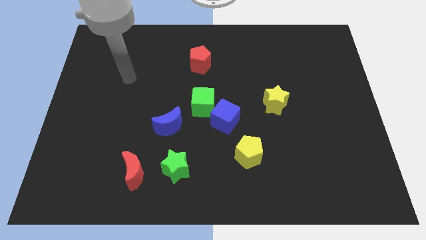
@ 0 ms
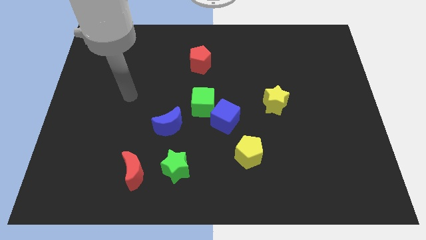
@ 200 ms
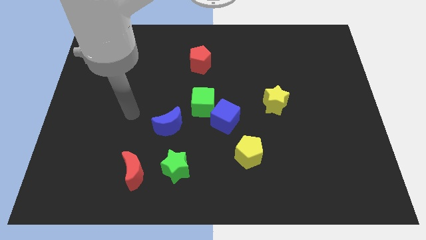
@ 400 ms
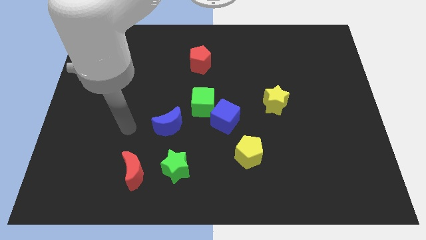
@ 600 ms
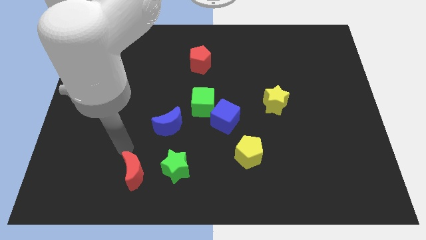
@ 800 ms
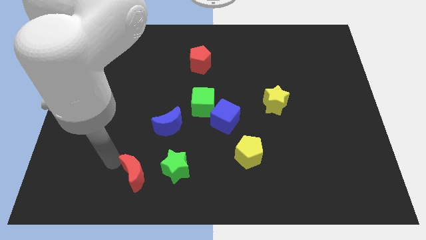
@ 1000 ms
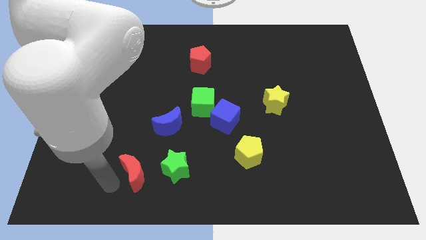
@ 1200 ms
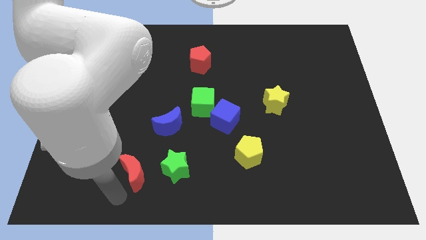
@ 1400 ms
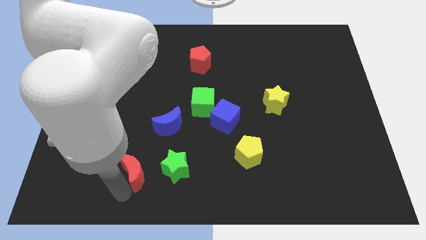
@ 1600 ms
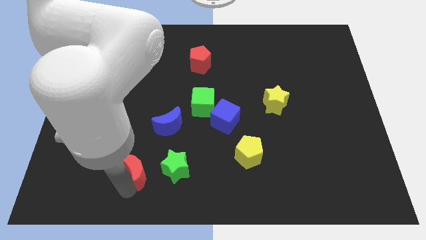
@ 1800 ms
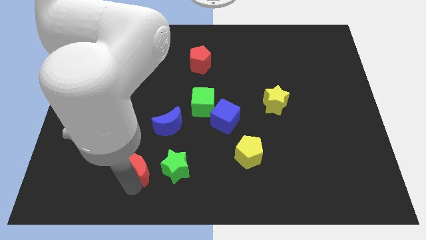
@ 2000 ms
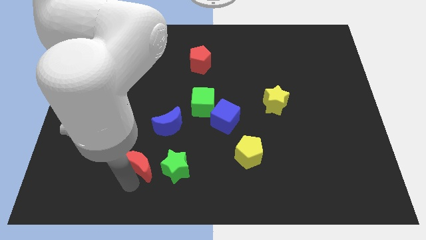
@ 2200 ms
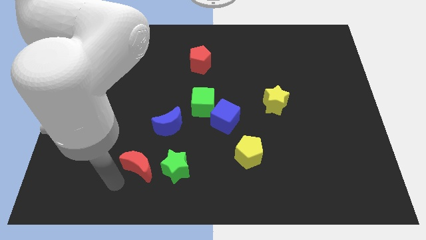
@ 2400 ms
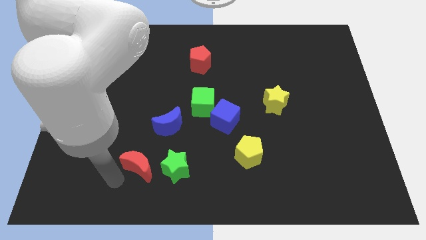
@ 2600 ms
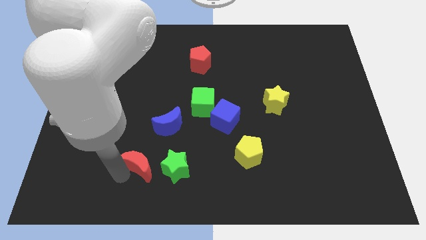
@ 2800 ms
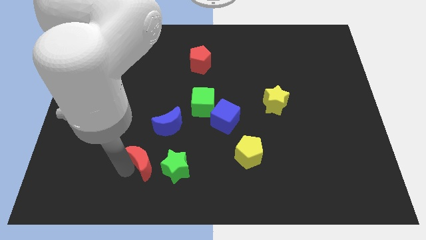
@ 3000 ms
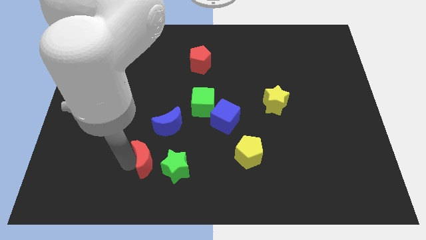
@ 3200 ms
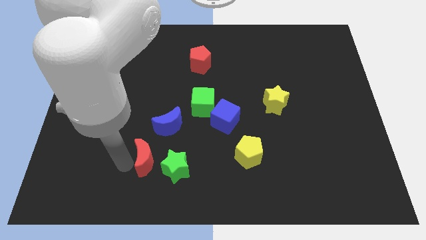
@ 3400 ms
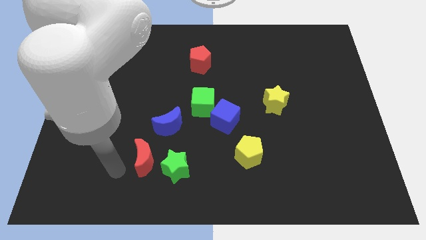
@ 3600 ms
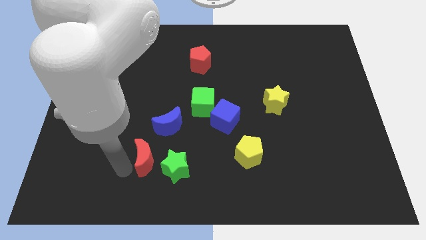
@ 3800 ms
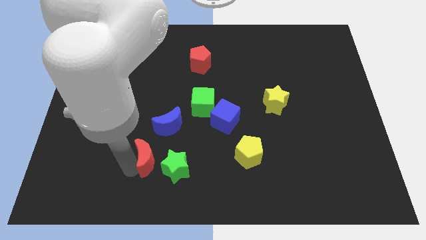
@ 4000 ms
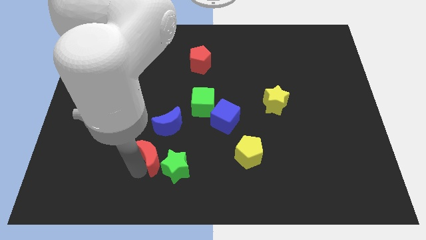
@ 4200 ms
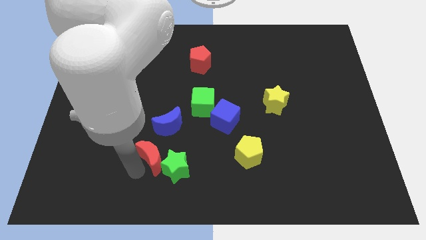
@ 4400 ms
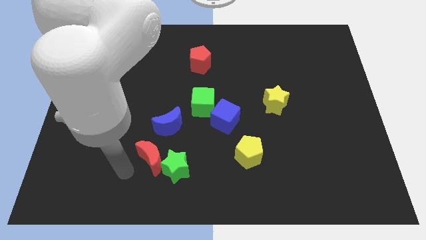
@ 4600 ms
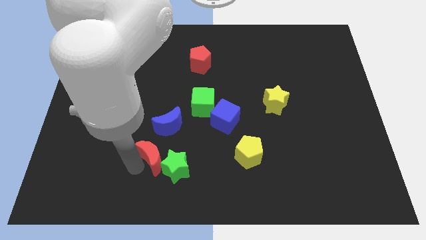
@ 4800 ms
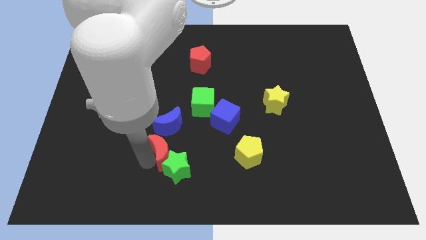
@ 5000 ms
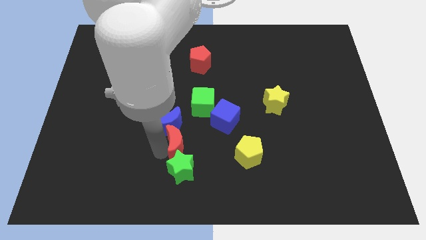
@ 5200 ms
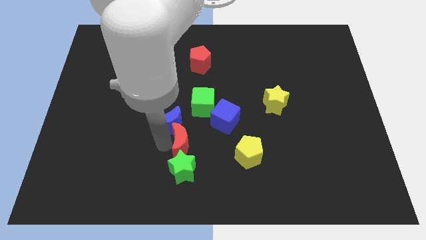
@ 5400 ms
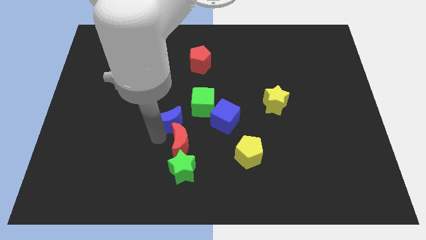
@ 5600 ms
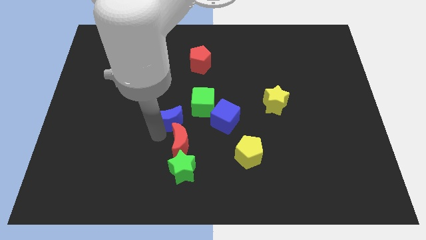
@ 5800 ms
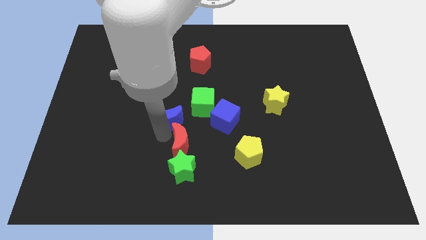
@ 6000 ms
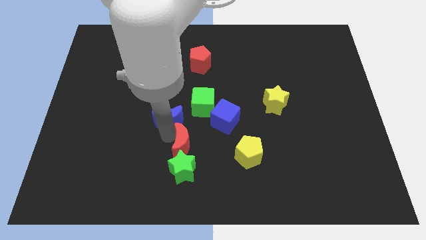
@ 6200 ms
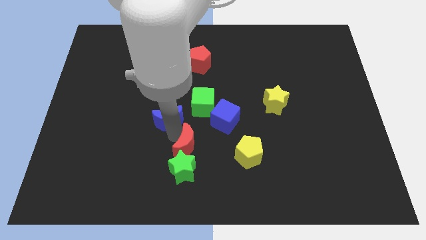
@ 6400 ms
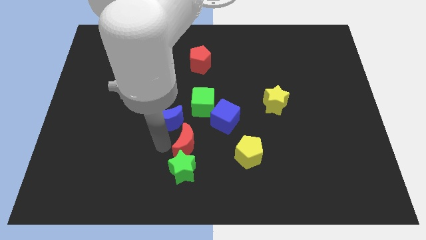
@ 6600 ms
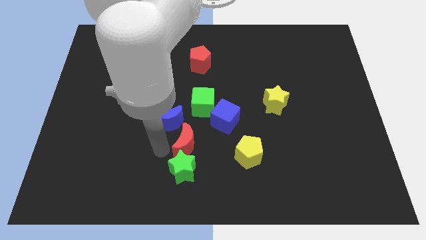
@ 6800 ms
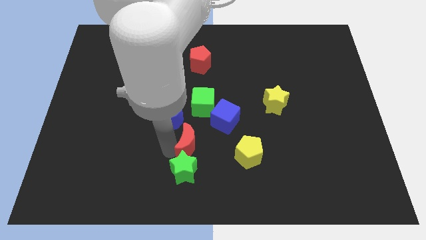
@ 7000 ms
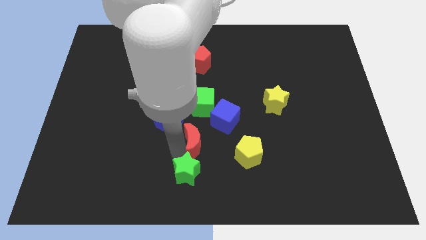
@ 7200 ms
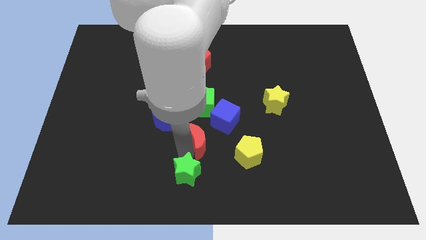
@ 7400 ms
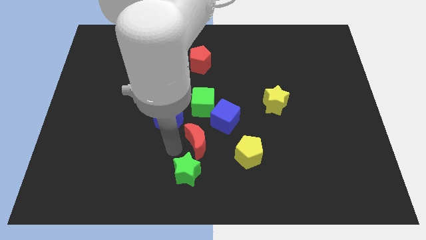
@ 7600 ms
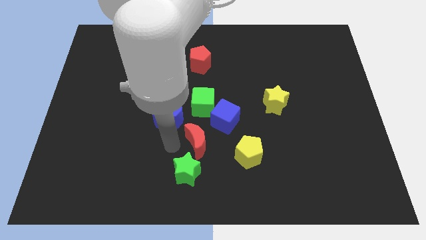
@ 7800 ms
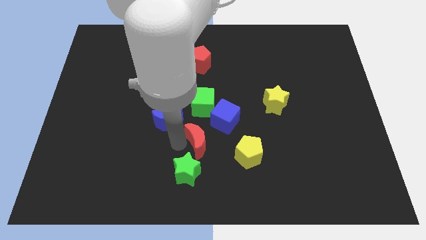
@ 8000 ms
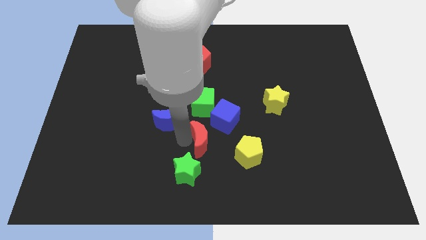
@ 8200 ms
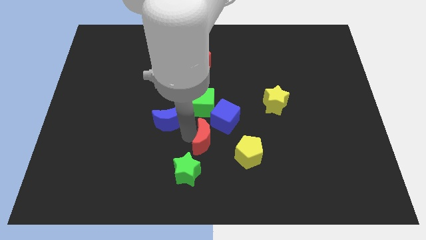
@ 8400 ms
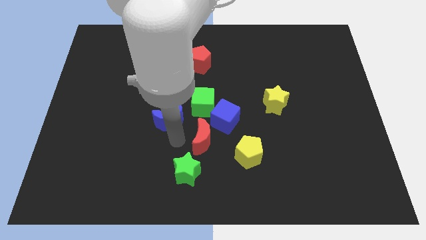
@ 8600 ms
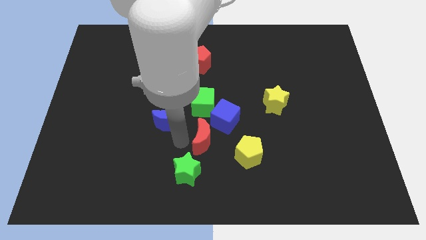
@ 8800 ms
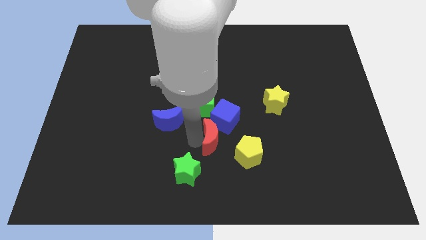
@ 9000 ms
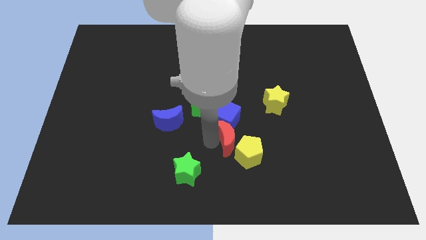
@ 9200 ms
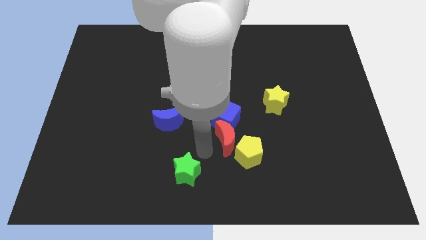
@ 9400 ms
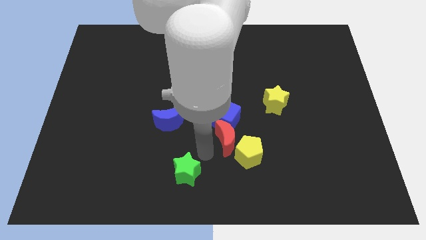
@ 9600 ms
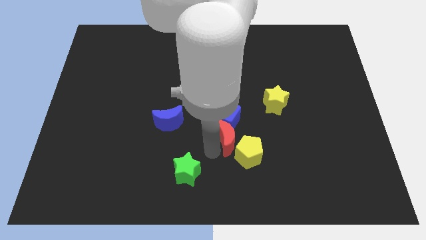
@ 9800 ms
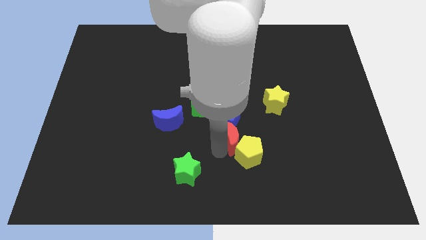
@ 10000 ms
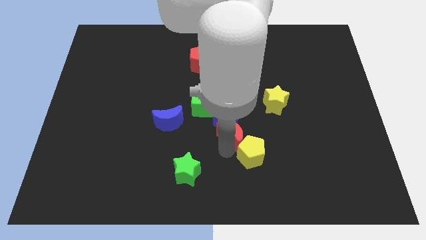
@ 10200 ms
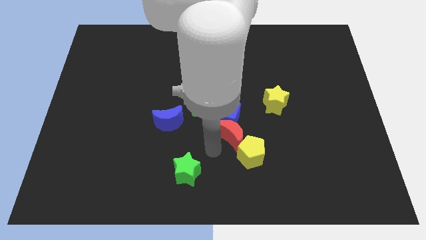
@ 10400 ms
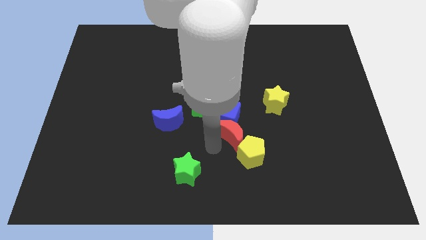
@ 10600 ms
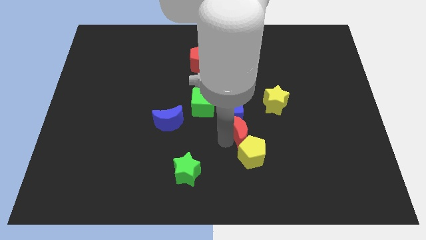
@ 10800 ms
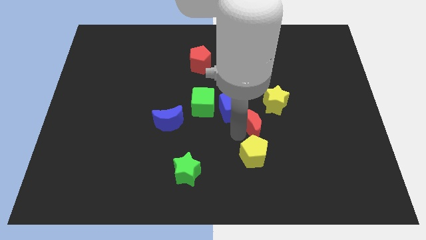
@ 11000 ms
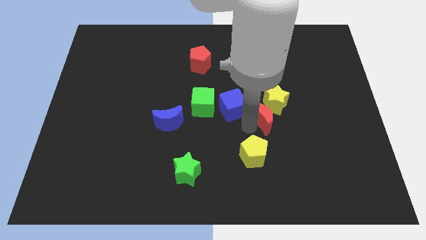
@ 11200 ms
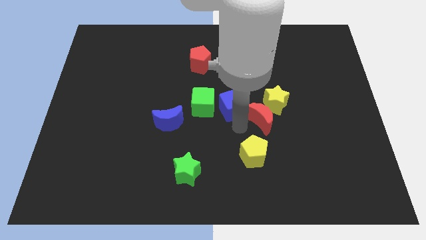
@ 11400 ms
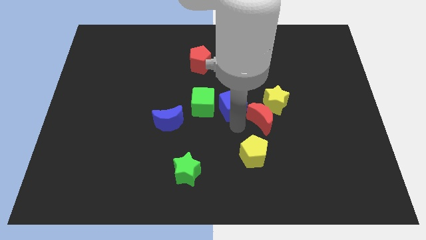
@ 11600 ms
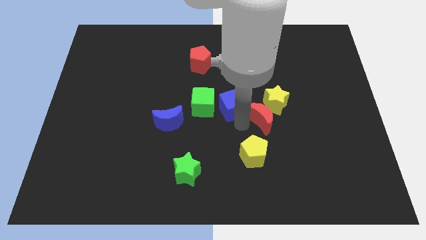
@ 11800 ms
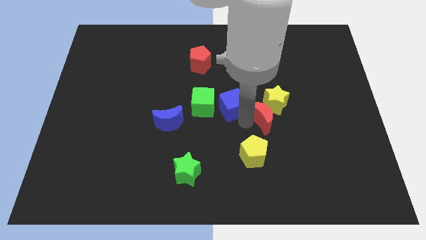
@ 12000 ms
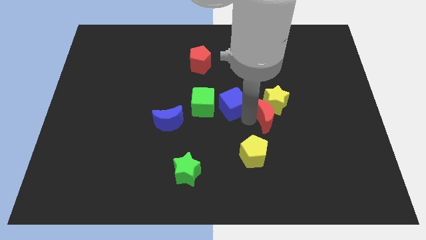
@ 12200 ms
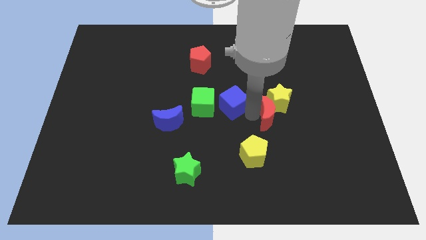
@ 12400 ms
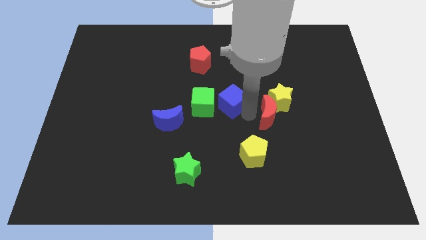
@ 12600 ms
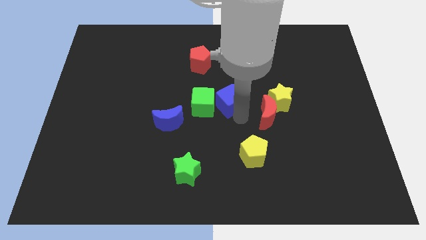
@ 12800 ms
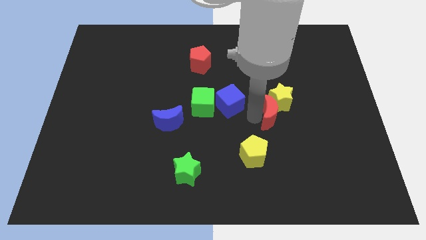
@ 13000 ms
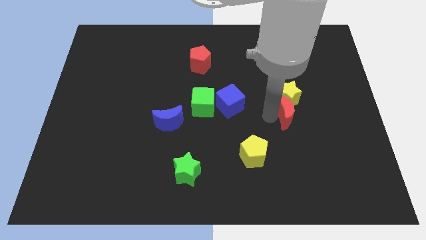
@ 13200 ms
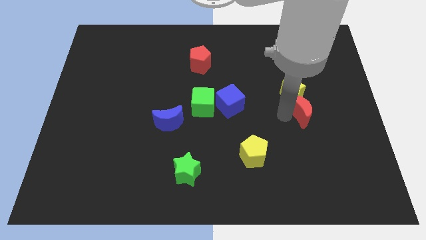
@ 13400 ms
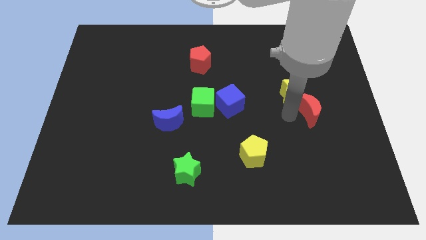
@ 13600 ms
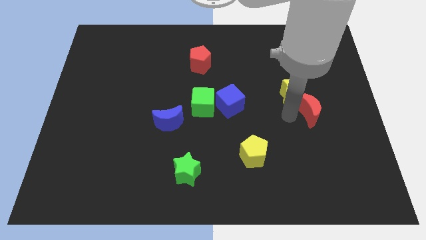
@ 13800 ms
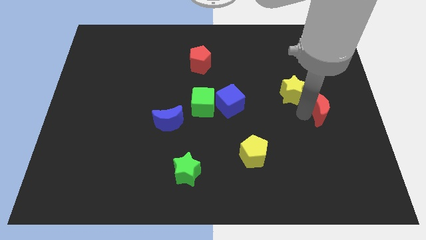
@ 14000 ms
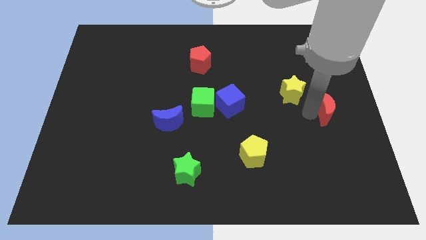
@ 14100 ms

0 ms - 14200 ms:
push the red moon to the right side of the board
